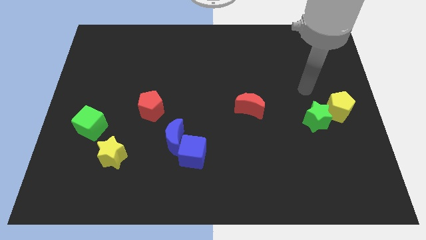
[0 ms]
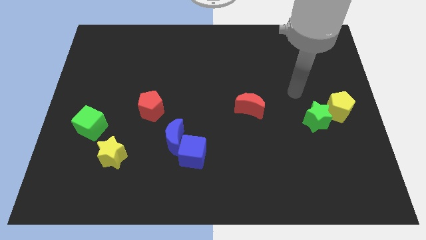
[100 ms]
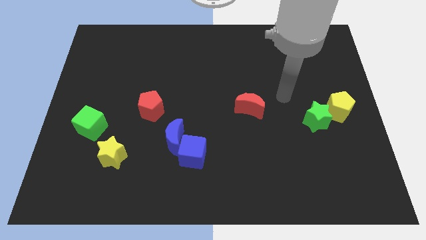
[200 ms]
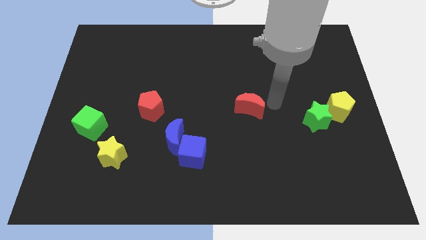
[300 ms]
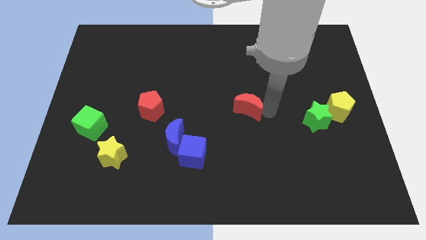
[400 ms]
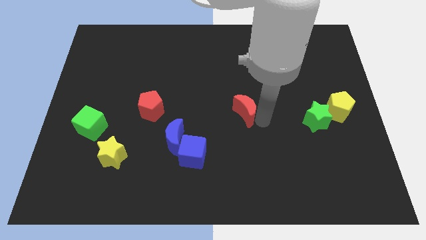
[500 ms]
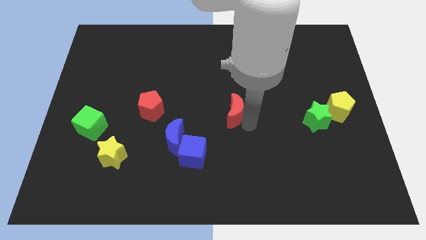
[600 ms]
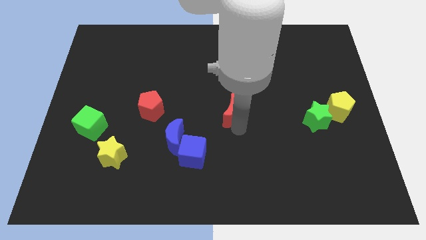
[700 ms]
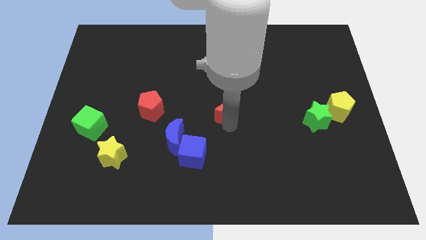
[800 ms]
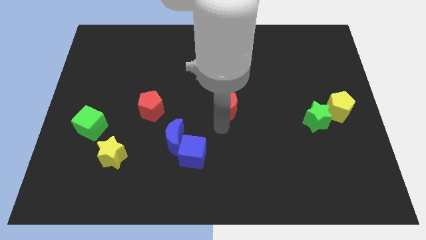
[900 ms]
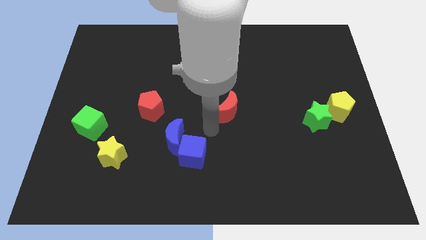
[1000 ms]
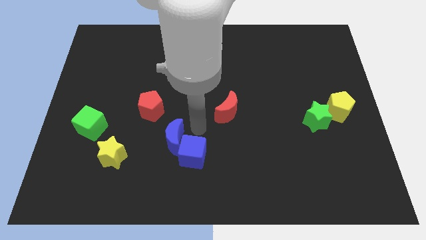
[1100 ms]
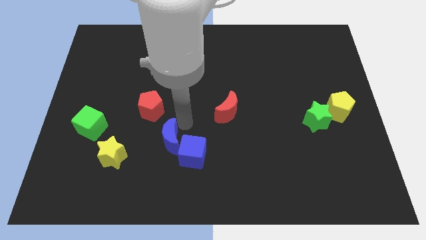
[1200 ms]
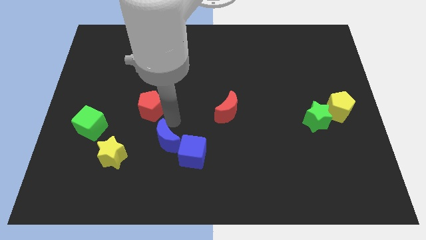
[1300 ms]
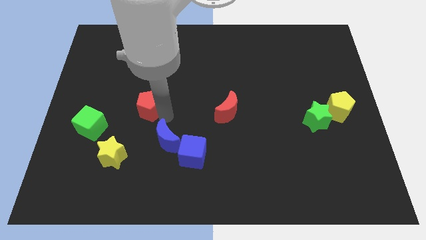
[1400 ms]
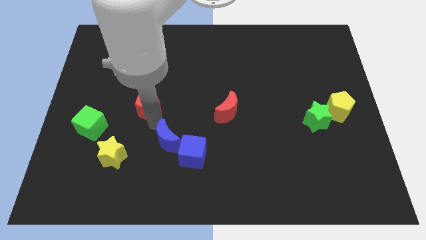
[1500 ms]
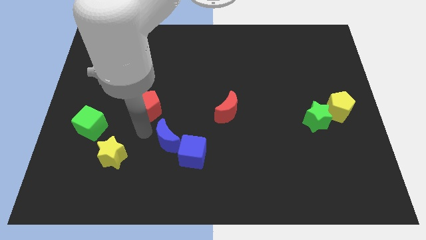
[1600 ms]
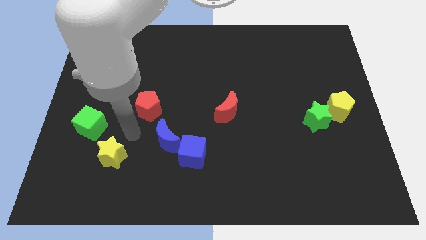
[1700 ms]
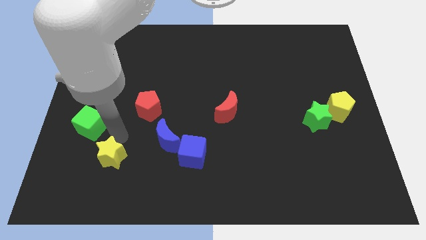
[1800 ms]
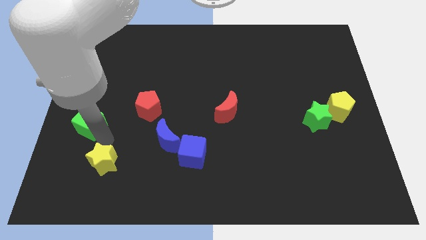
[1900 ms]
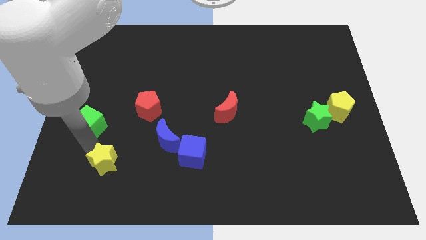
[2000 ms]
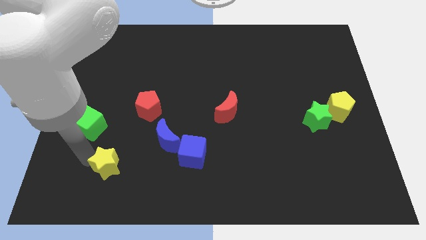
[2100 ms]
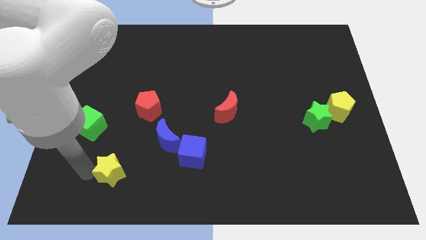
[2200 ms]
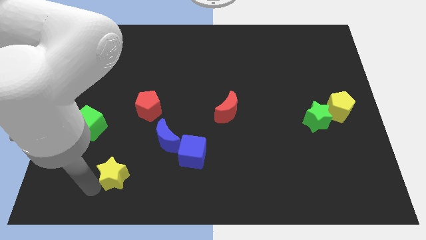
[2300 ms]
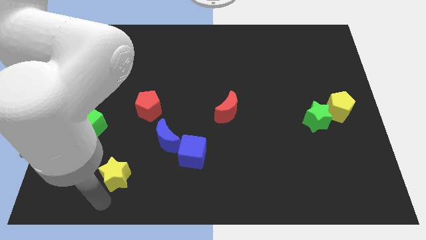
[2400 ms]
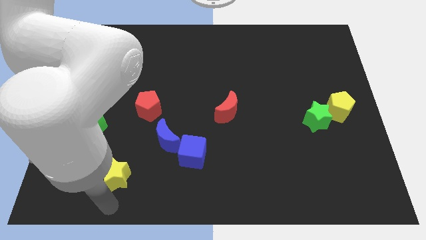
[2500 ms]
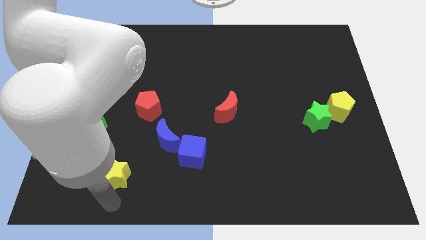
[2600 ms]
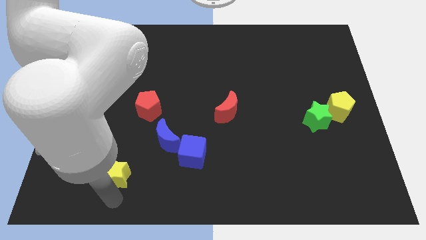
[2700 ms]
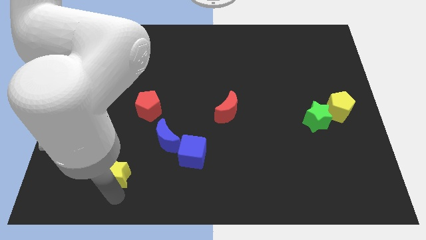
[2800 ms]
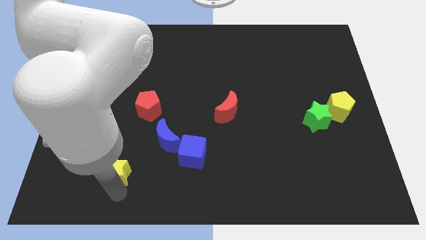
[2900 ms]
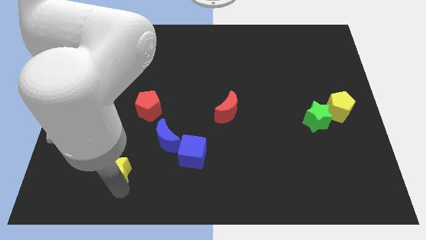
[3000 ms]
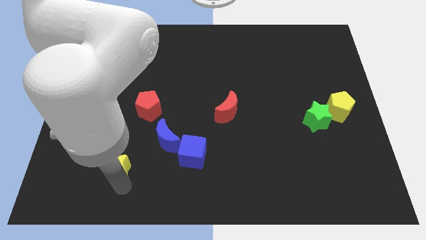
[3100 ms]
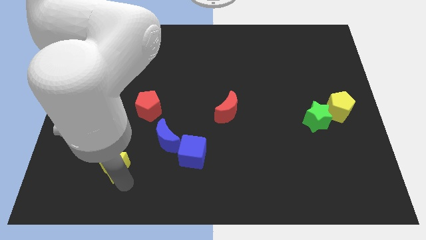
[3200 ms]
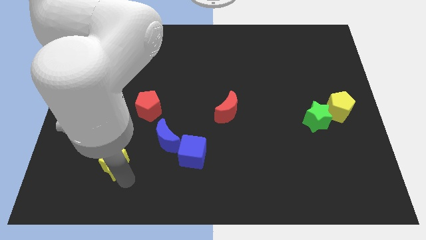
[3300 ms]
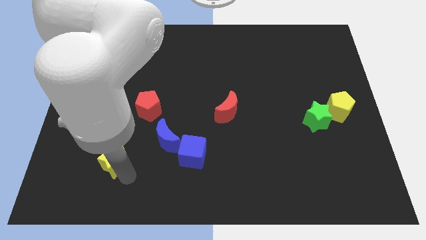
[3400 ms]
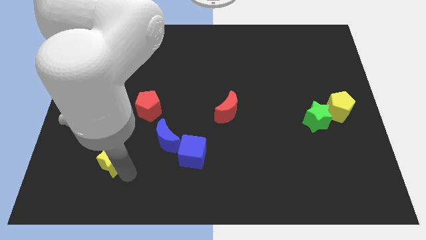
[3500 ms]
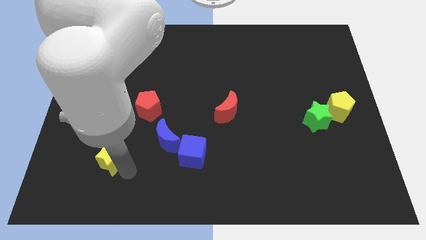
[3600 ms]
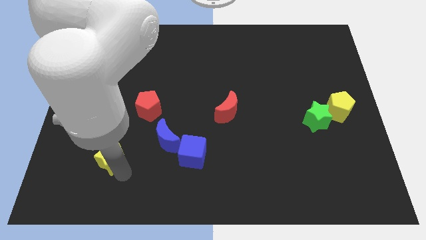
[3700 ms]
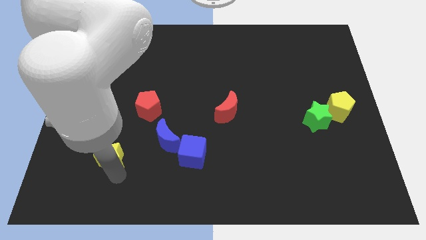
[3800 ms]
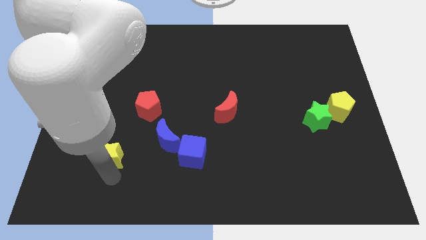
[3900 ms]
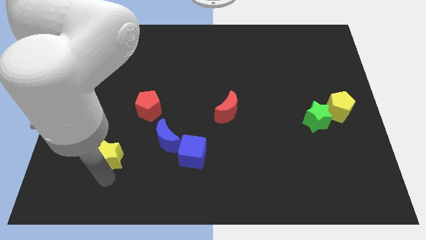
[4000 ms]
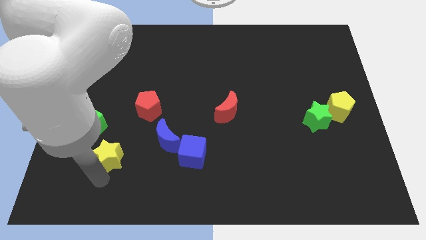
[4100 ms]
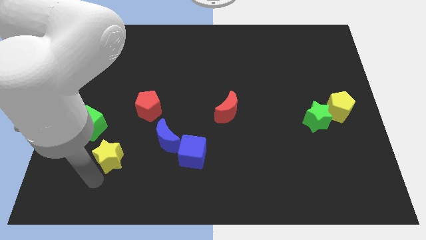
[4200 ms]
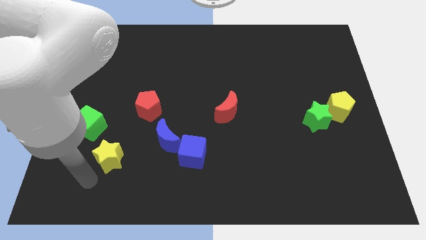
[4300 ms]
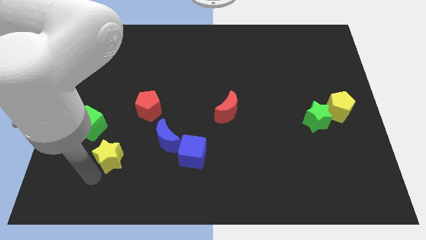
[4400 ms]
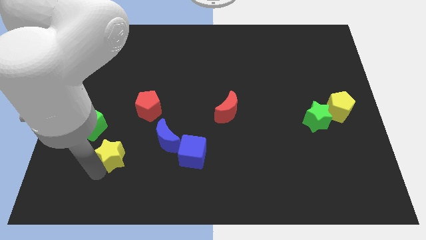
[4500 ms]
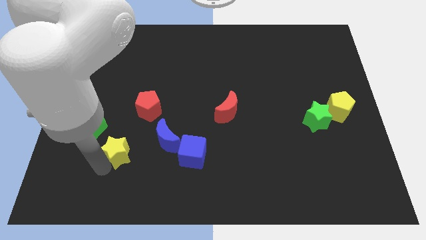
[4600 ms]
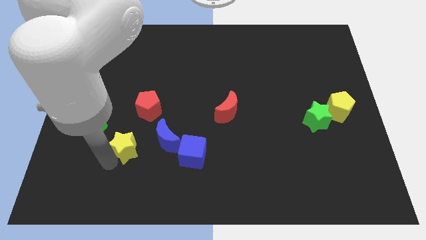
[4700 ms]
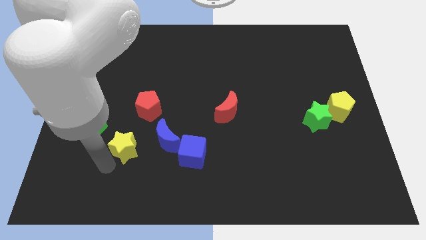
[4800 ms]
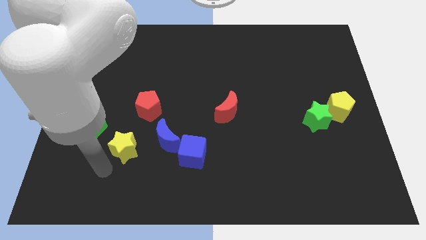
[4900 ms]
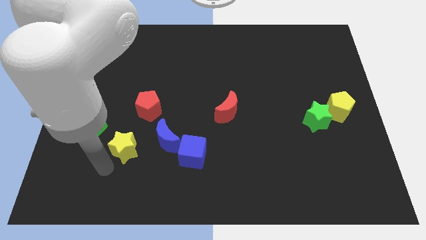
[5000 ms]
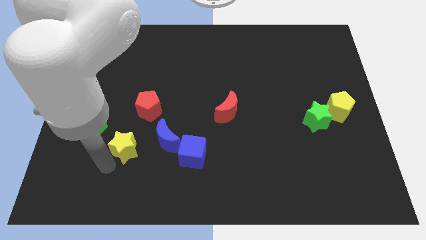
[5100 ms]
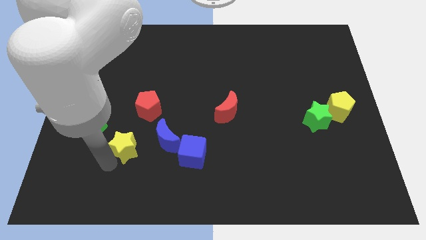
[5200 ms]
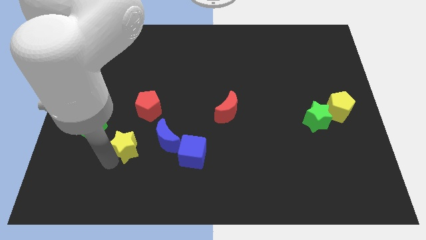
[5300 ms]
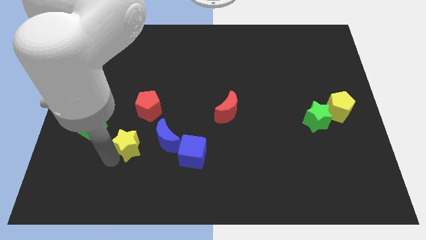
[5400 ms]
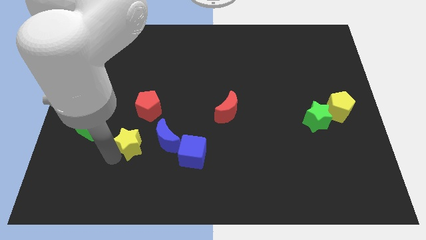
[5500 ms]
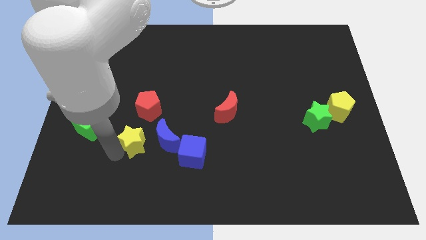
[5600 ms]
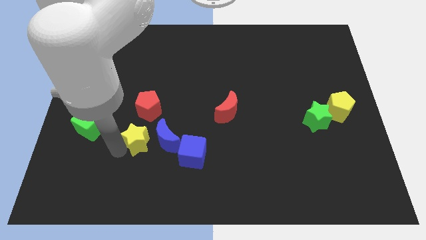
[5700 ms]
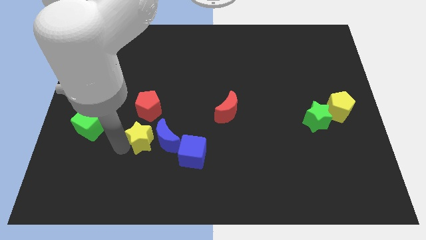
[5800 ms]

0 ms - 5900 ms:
slide the yellow star upwards and to the right a little

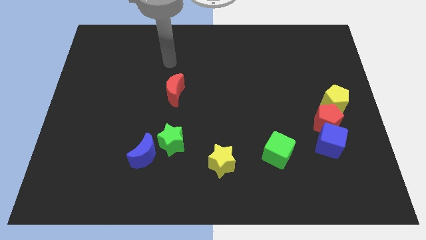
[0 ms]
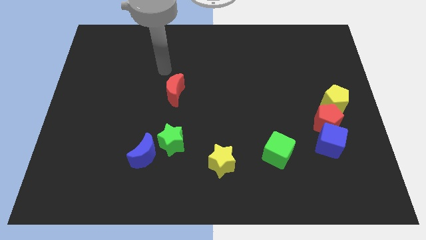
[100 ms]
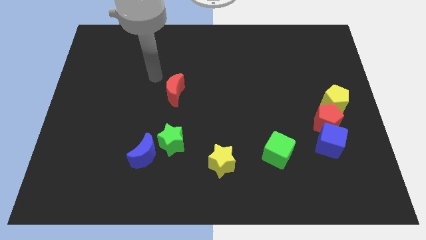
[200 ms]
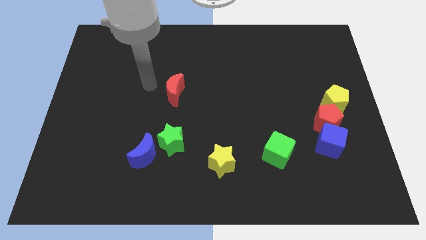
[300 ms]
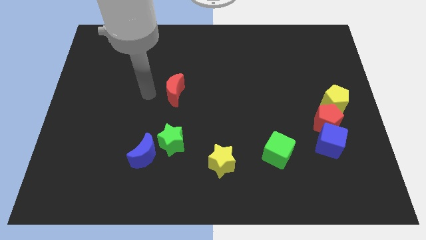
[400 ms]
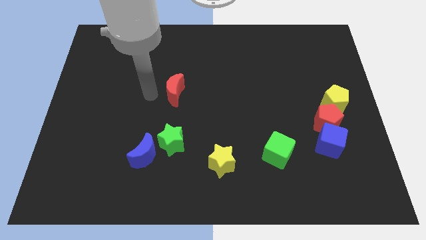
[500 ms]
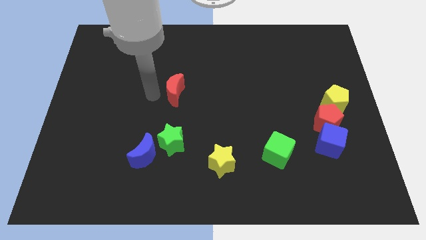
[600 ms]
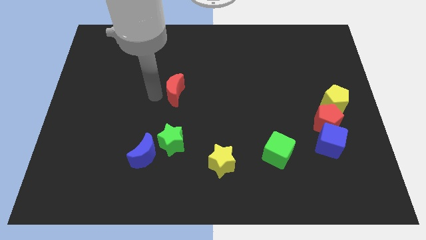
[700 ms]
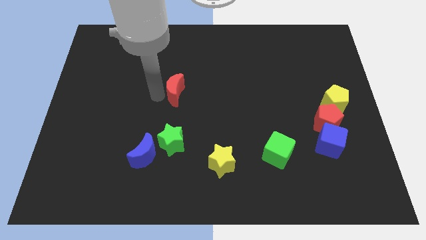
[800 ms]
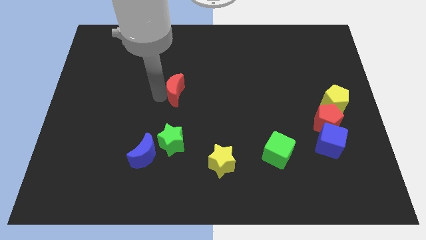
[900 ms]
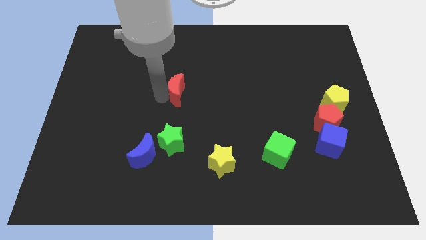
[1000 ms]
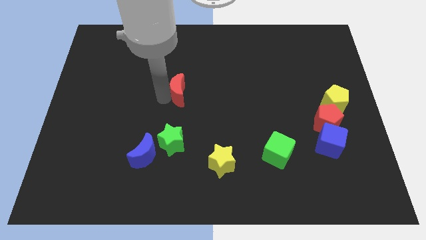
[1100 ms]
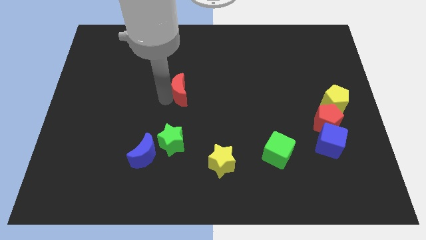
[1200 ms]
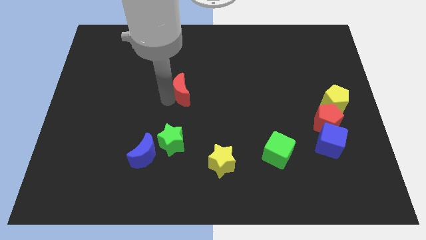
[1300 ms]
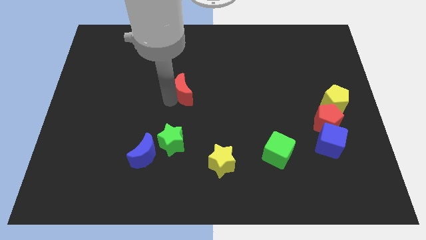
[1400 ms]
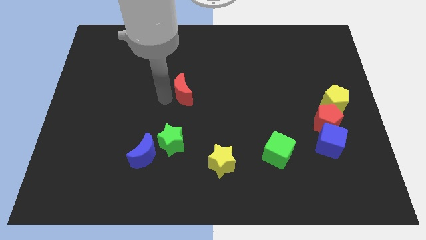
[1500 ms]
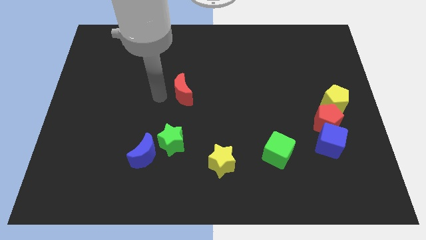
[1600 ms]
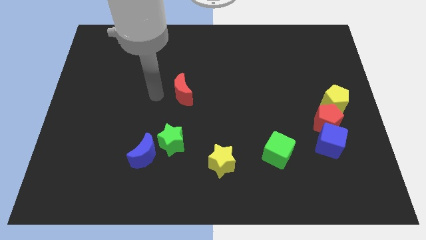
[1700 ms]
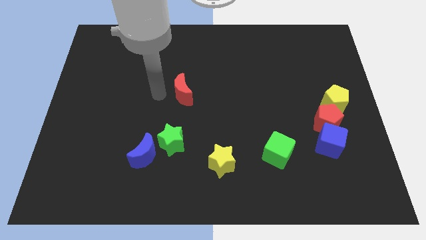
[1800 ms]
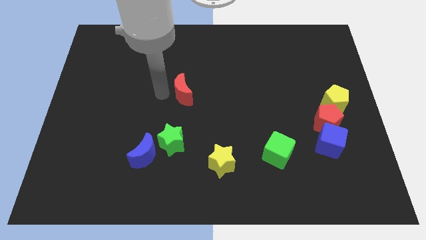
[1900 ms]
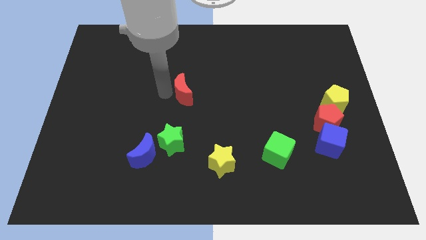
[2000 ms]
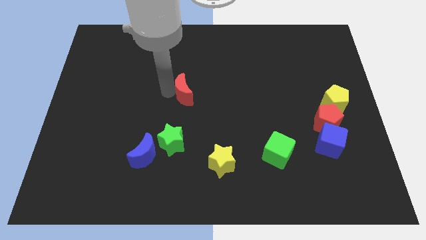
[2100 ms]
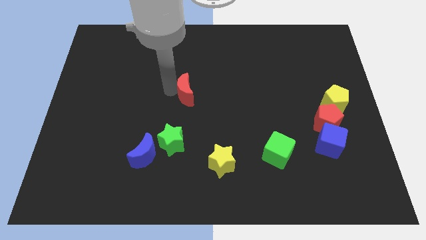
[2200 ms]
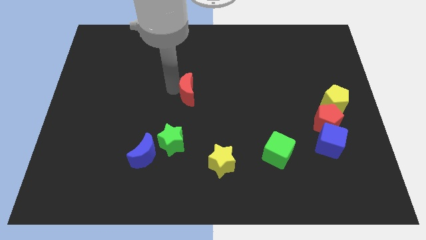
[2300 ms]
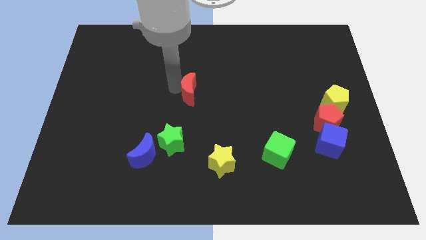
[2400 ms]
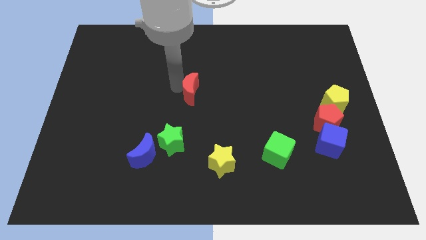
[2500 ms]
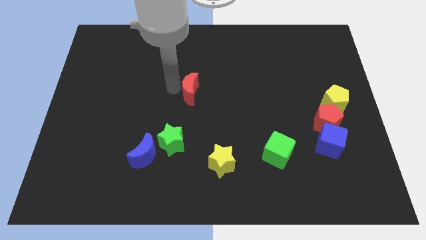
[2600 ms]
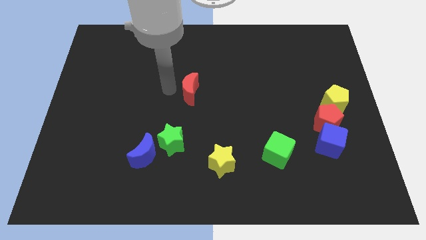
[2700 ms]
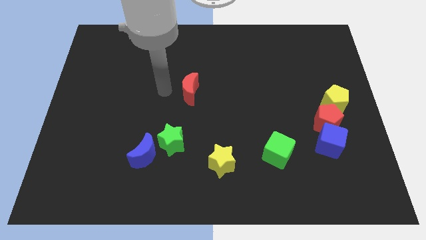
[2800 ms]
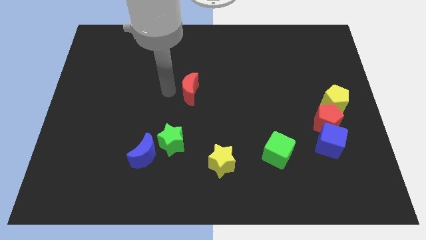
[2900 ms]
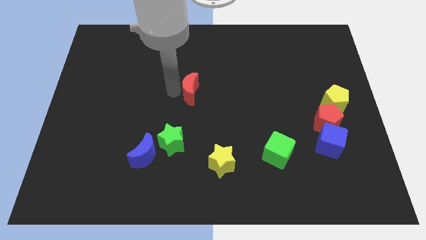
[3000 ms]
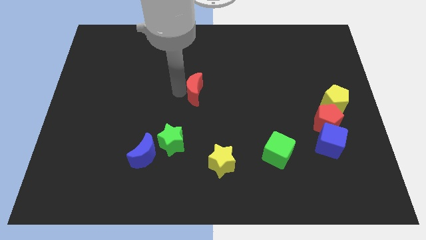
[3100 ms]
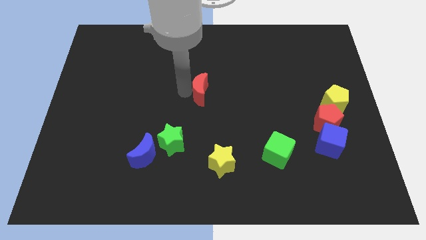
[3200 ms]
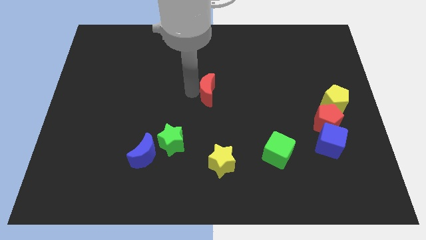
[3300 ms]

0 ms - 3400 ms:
slightly move the red moon right
